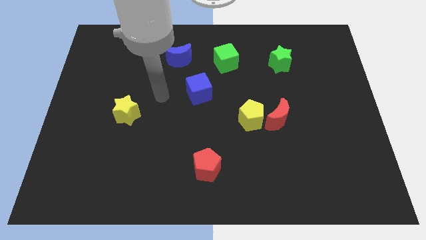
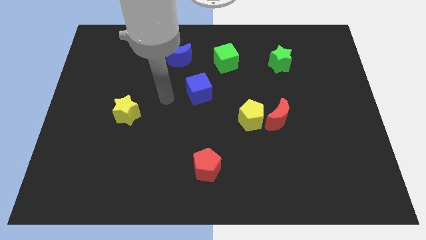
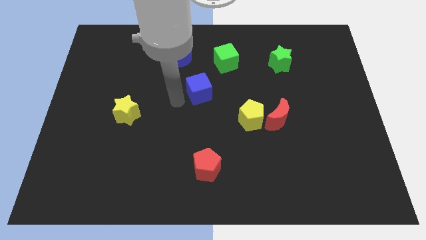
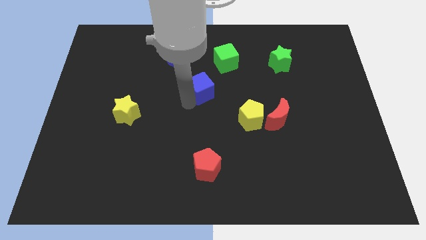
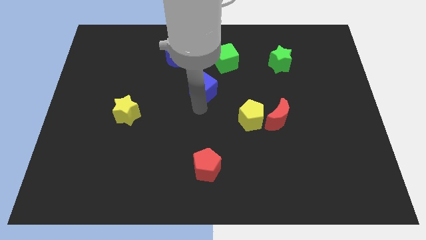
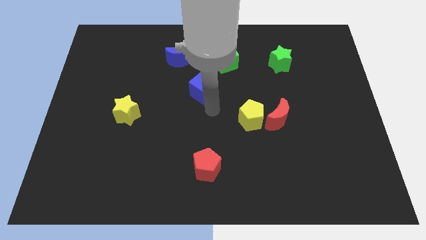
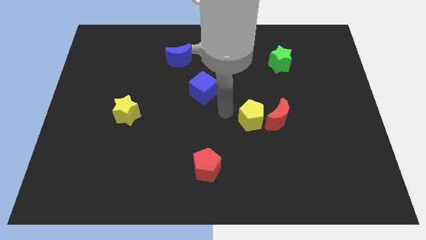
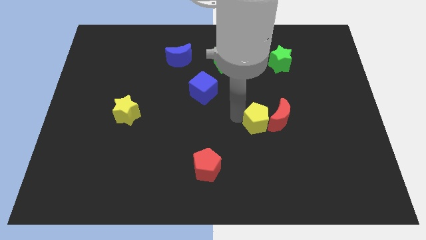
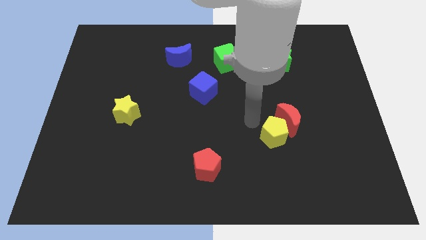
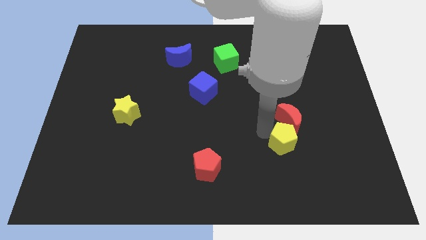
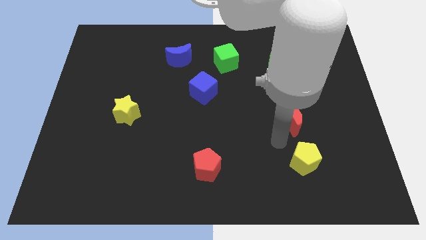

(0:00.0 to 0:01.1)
move the red moon away from the yellow pentagon

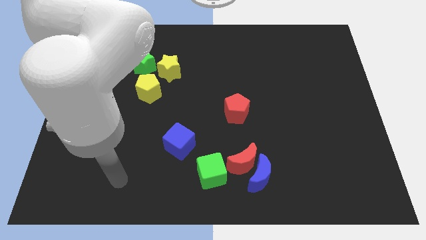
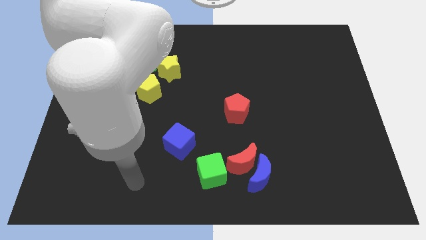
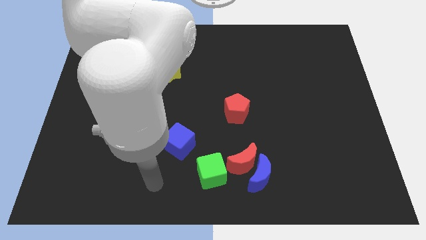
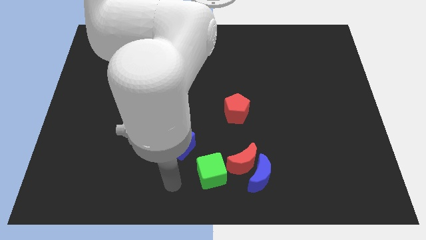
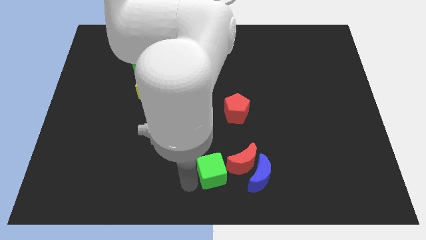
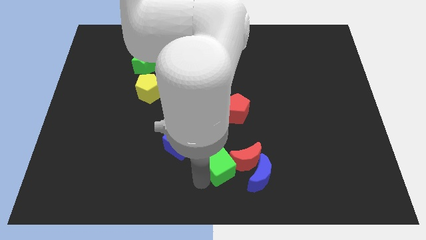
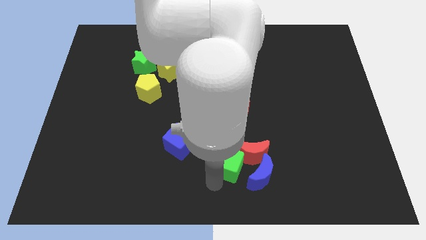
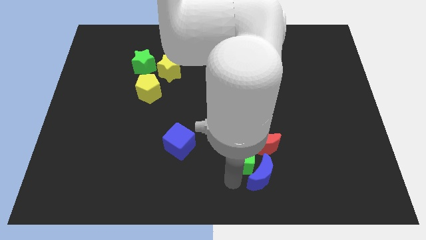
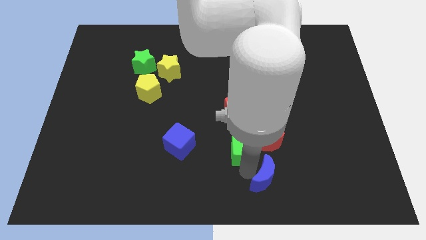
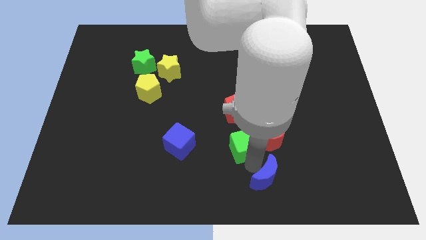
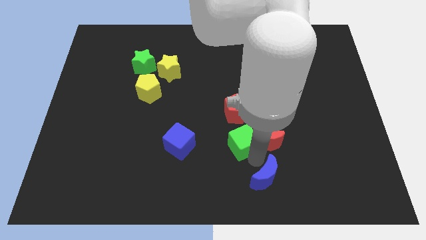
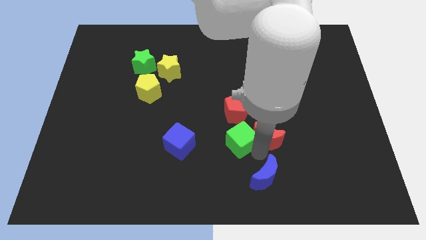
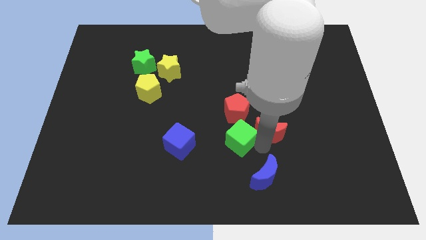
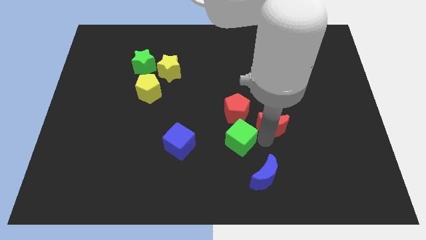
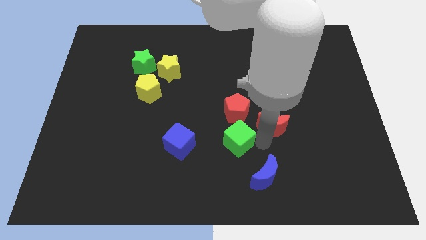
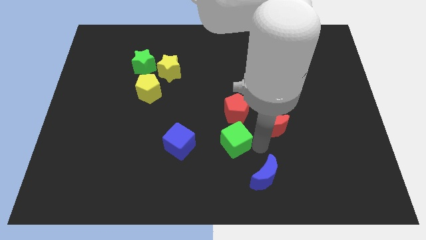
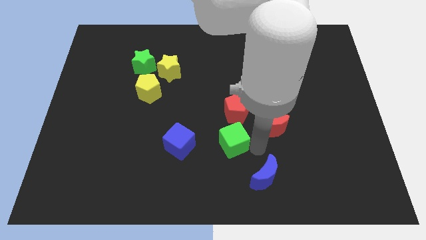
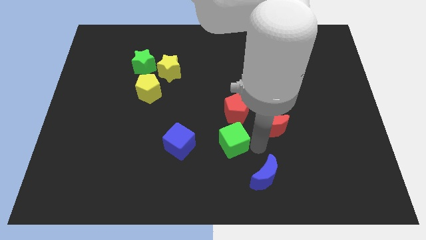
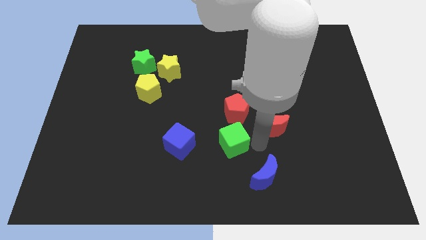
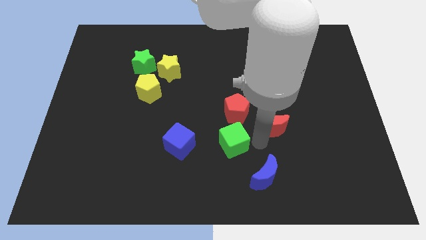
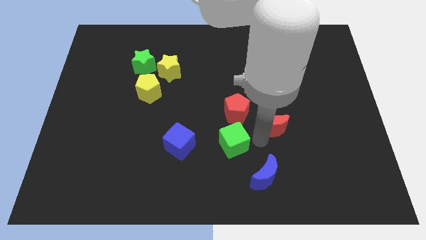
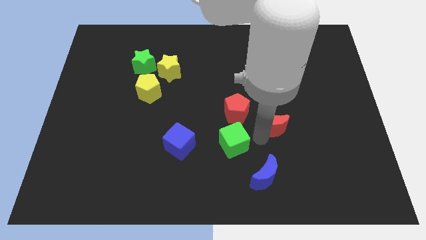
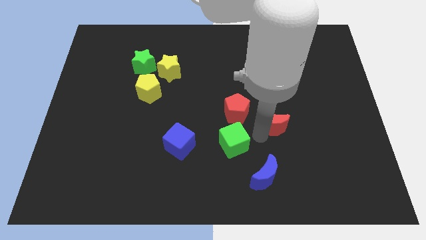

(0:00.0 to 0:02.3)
move the red moon away from the blue moon and green cube

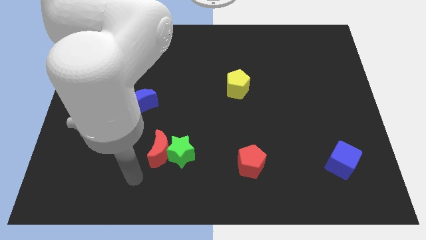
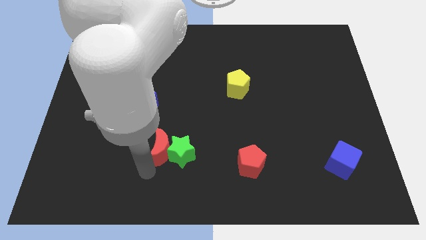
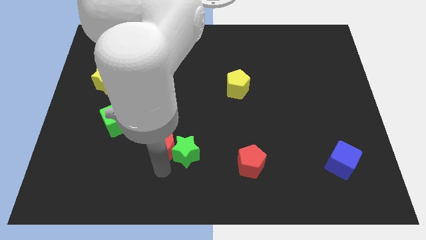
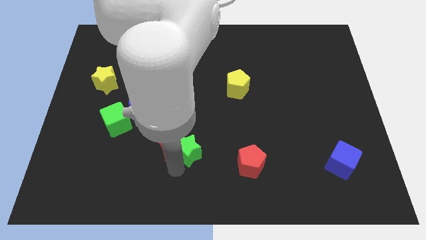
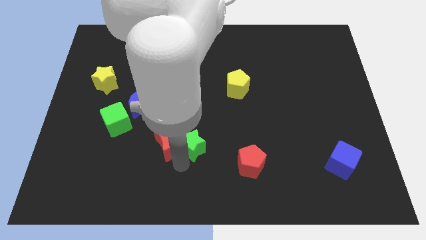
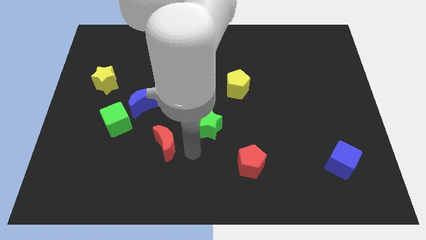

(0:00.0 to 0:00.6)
move the red moon away from the green star

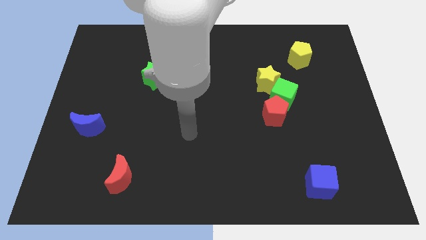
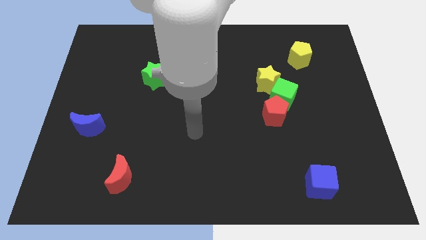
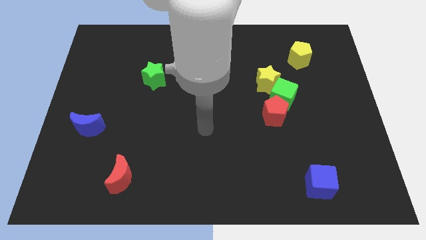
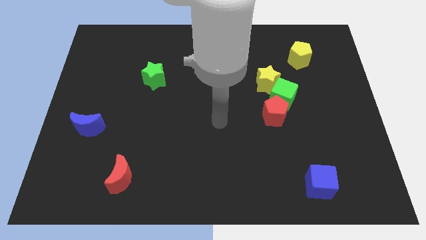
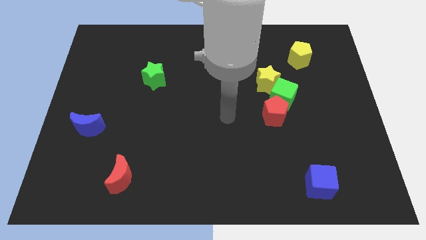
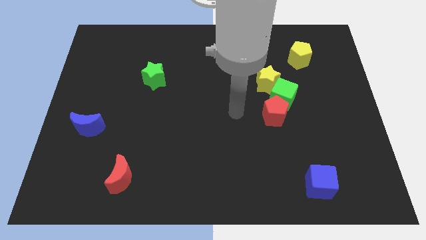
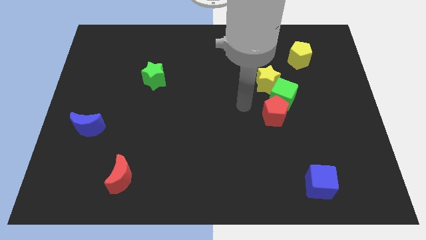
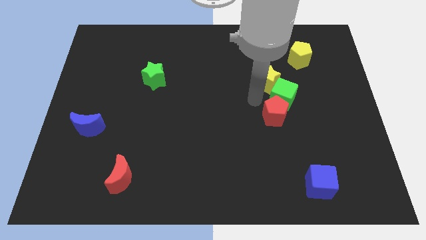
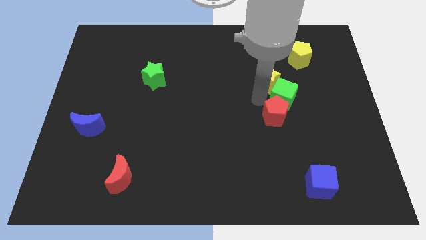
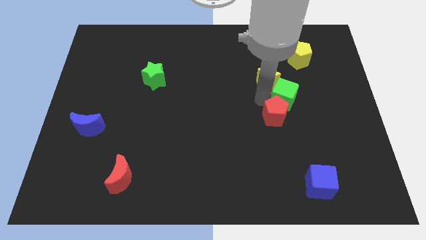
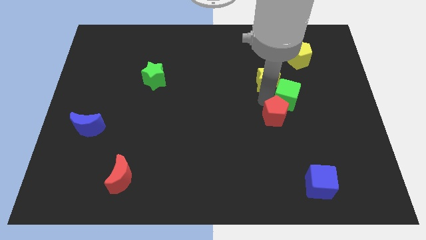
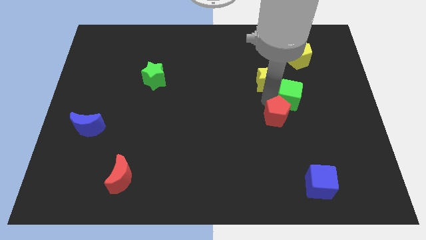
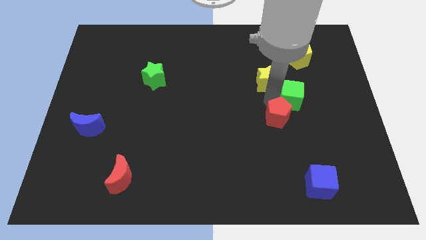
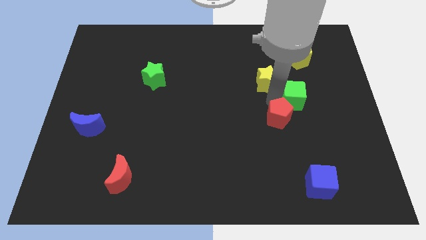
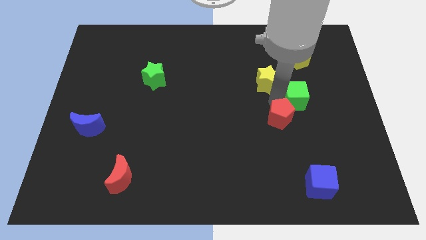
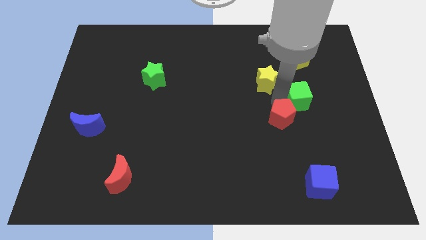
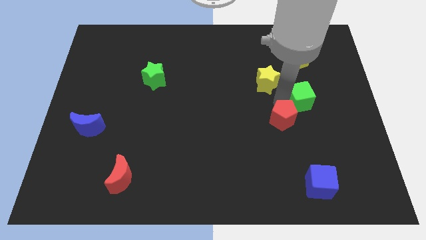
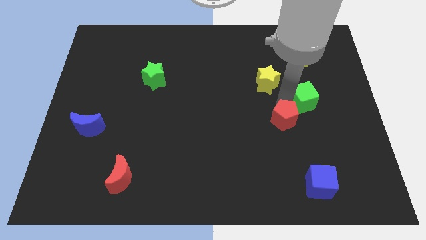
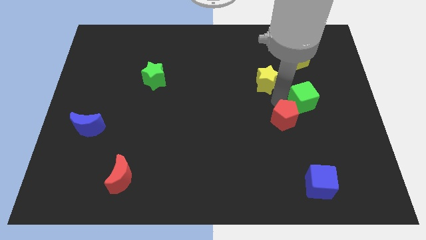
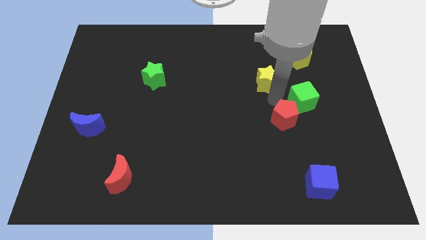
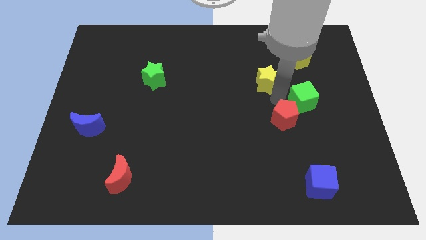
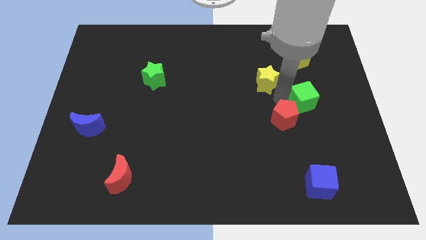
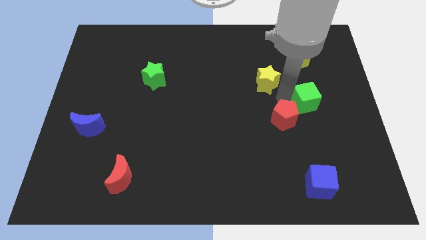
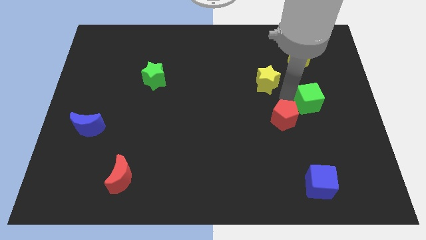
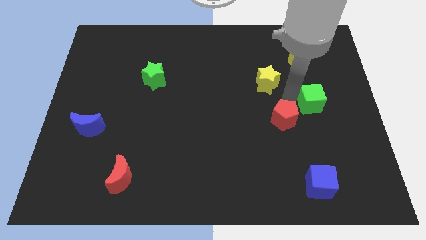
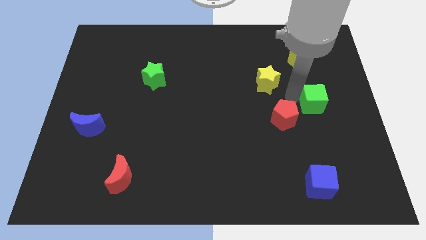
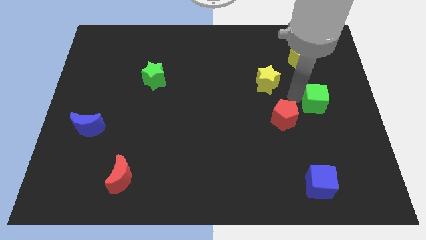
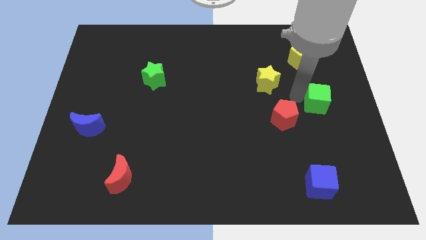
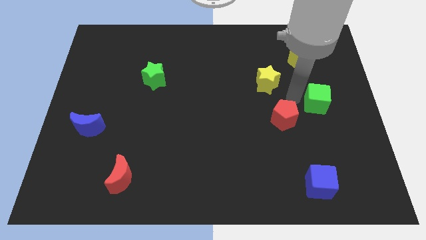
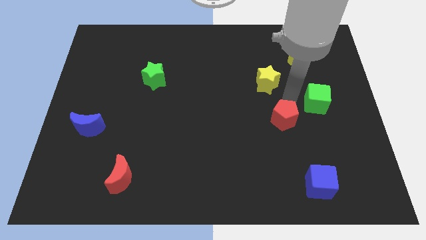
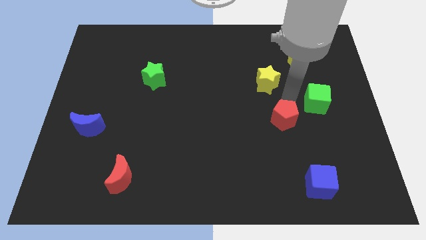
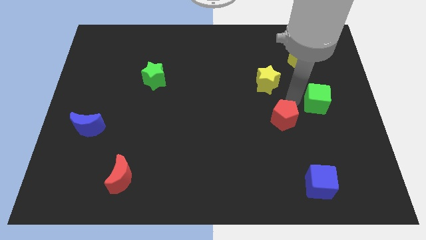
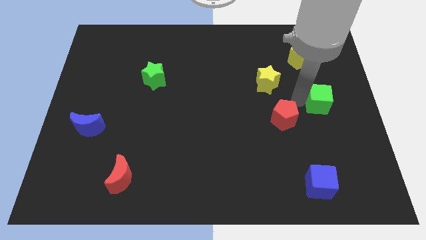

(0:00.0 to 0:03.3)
separate the green cube from the yellow star and red pentagon

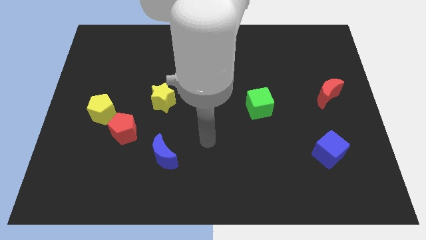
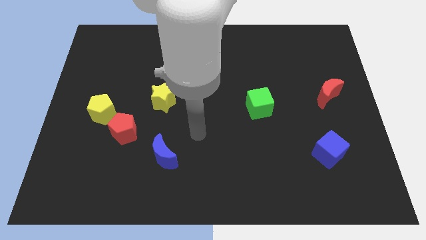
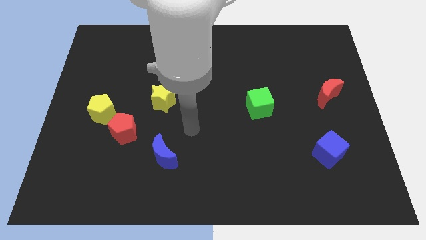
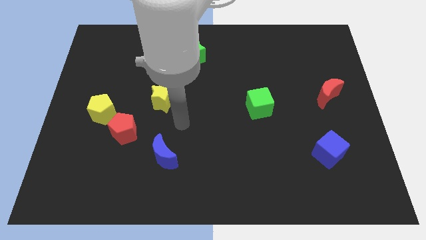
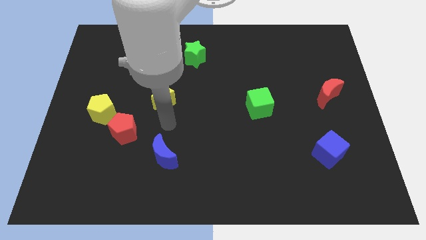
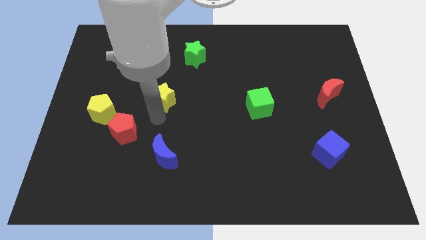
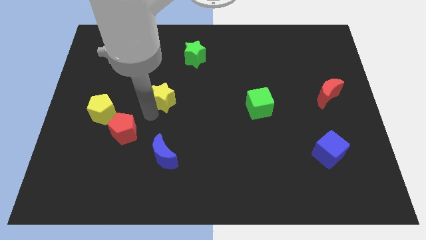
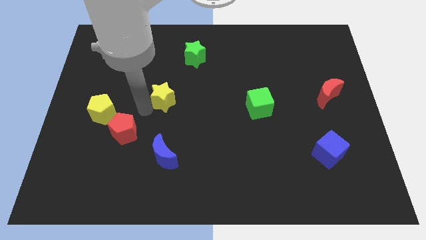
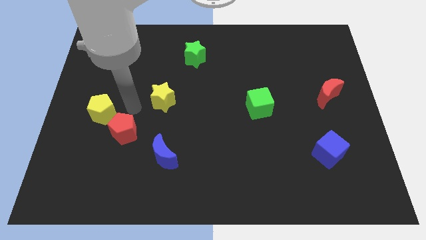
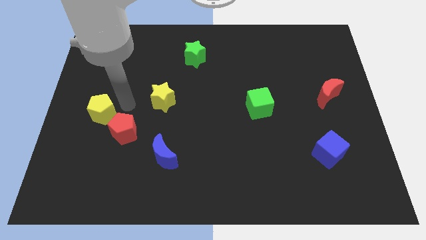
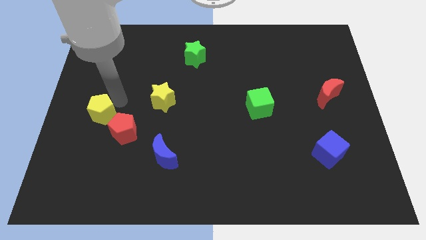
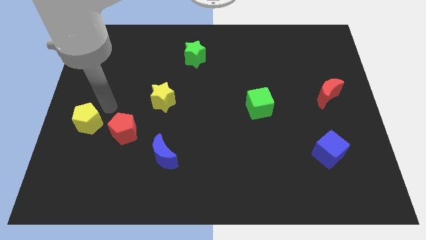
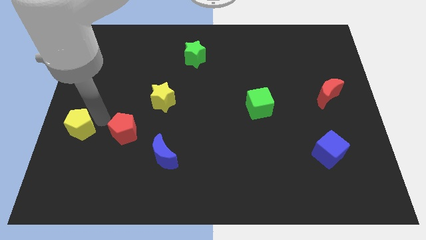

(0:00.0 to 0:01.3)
pull the red pentagon apart from the yellow pentagon

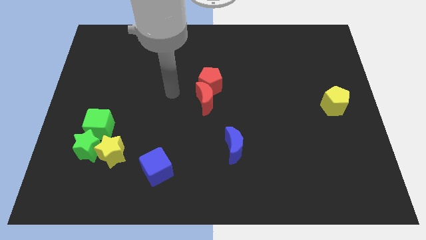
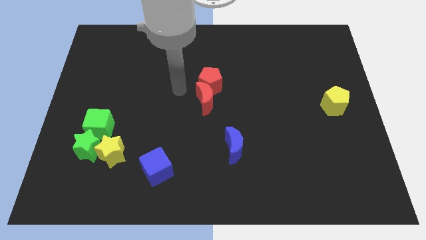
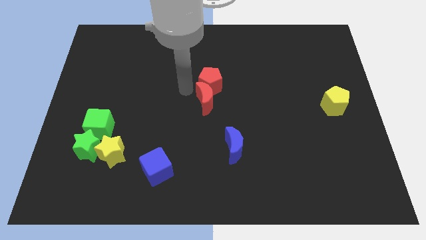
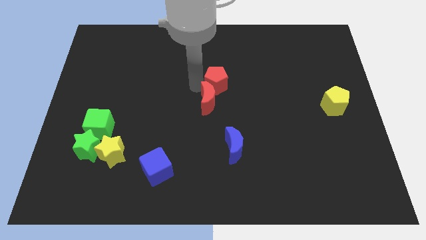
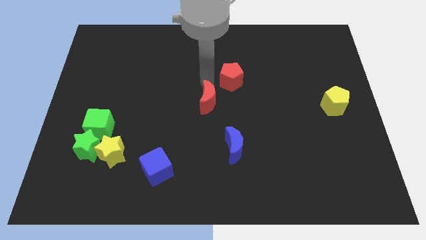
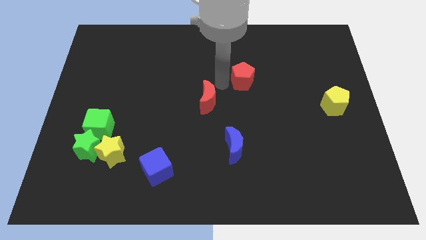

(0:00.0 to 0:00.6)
move the red moon away from the red pentagon
